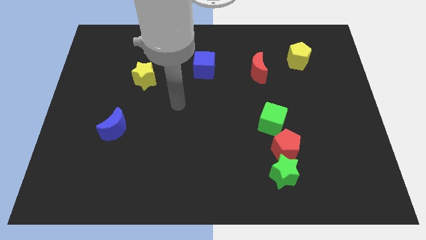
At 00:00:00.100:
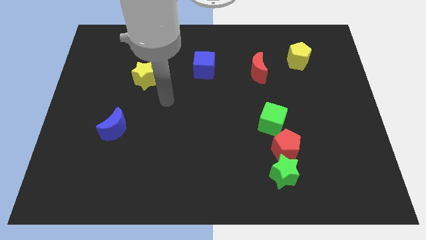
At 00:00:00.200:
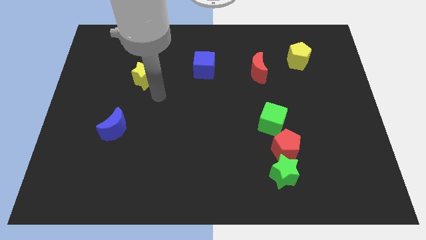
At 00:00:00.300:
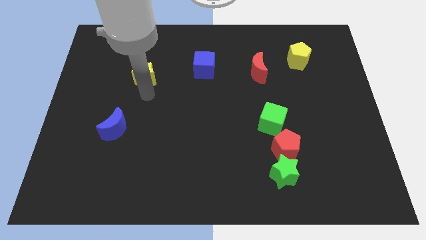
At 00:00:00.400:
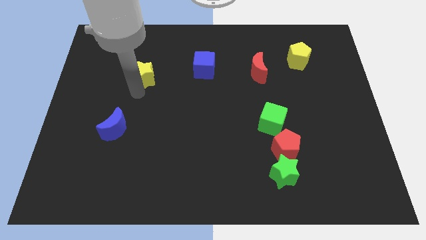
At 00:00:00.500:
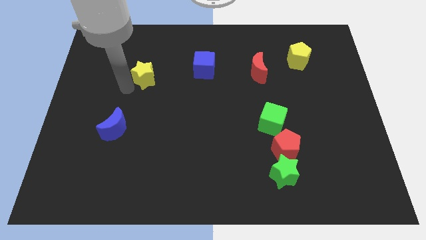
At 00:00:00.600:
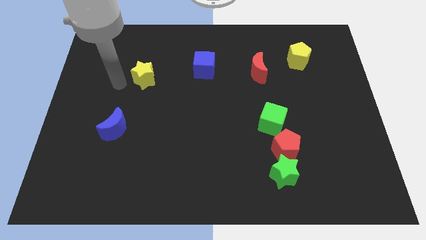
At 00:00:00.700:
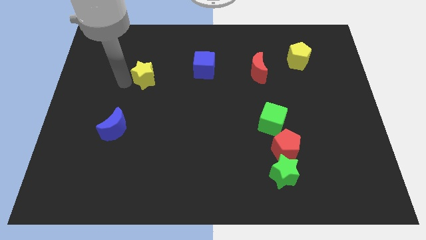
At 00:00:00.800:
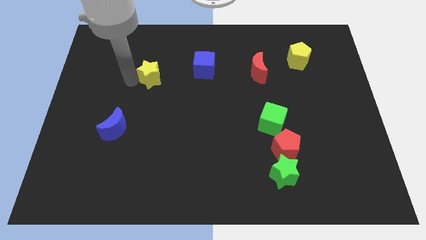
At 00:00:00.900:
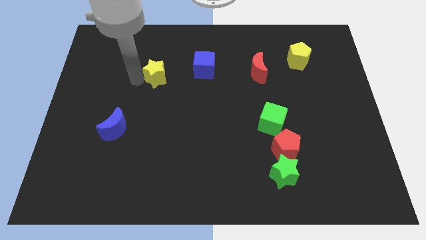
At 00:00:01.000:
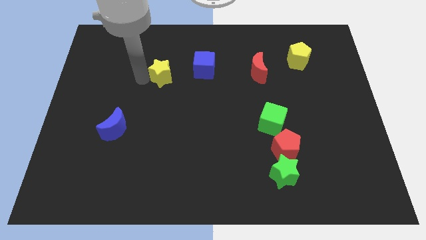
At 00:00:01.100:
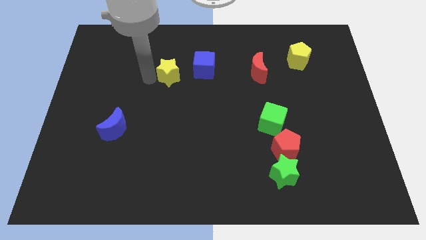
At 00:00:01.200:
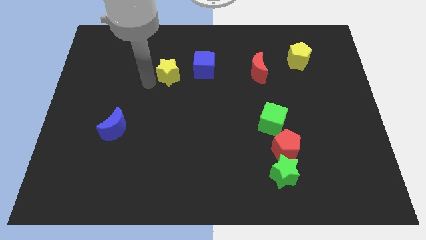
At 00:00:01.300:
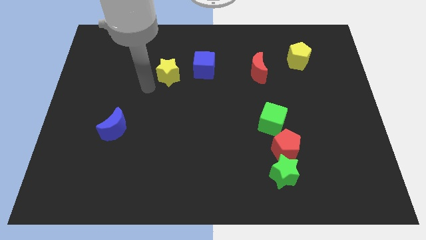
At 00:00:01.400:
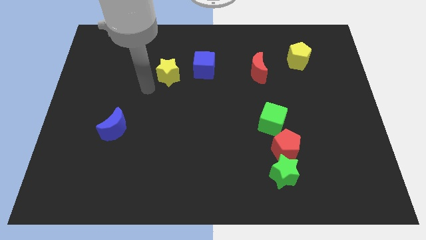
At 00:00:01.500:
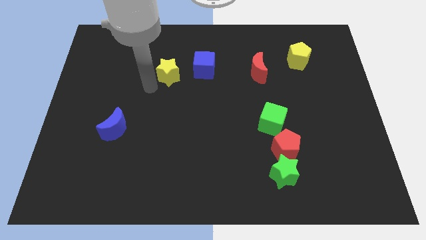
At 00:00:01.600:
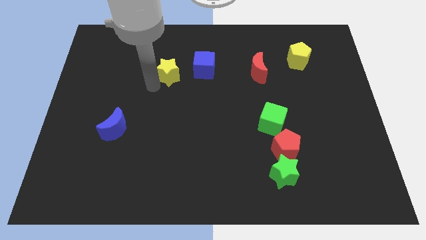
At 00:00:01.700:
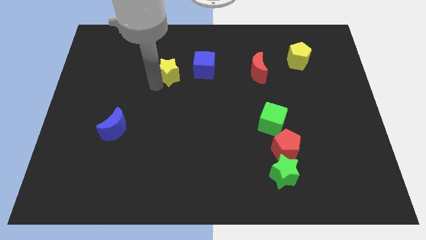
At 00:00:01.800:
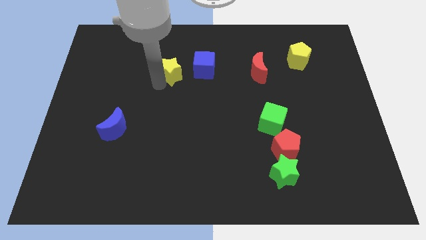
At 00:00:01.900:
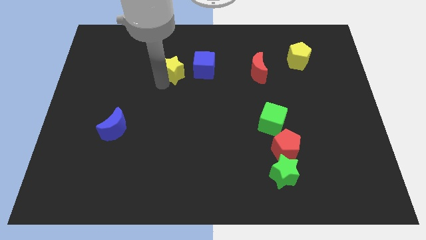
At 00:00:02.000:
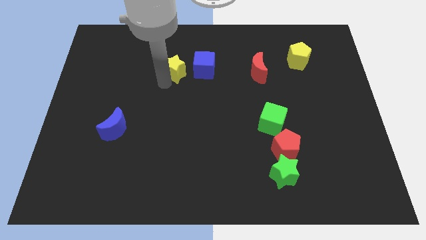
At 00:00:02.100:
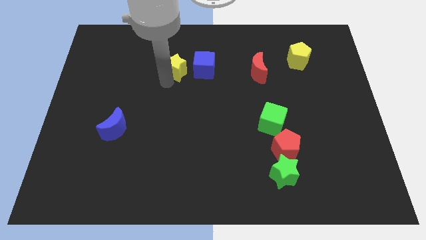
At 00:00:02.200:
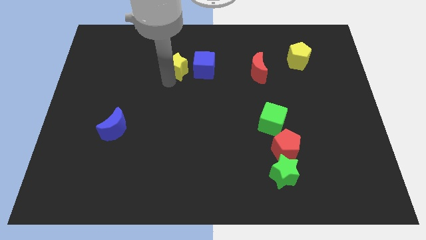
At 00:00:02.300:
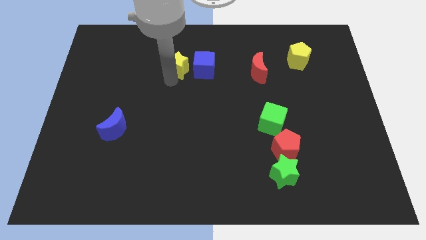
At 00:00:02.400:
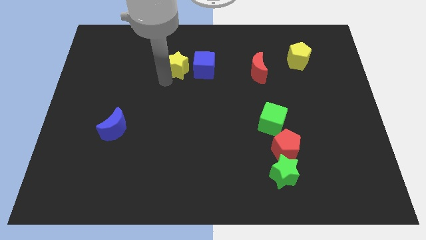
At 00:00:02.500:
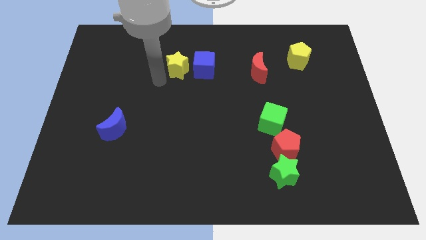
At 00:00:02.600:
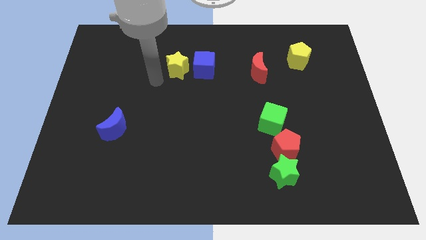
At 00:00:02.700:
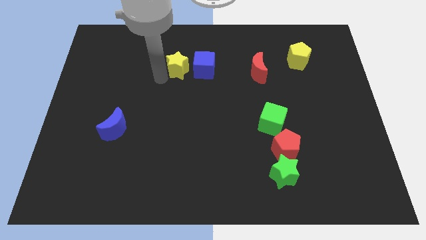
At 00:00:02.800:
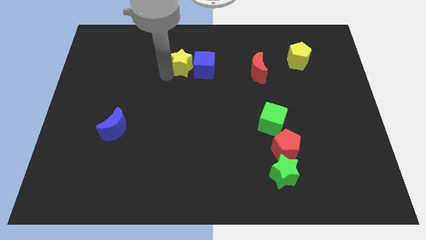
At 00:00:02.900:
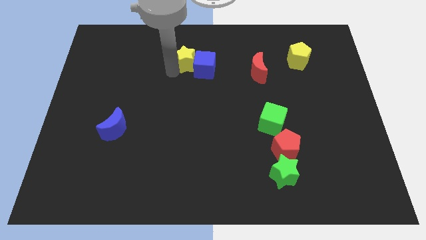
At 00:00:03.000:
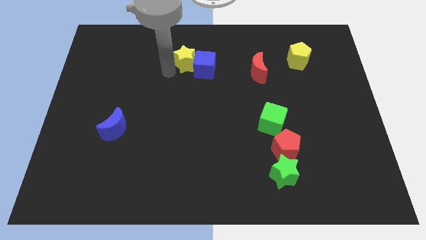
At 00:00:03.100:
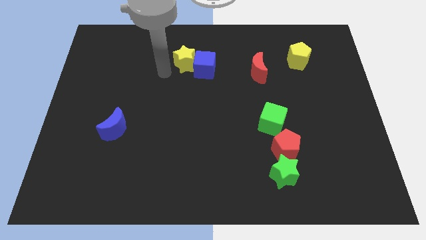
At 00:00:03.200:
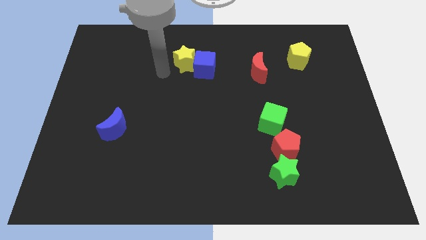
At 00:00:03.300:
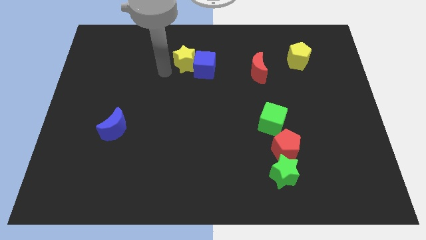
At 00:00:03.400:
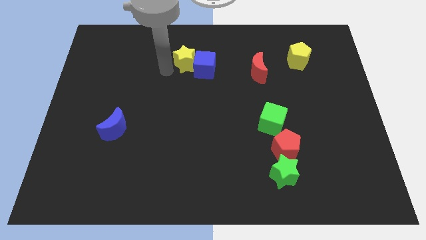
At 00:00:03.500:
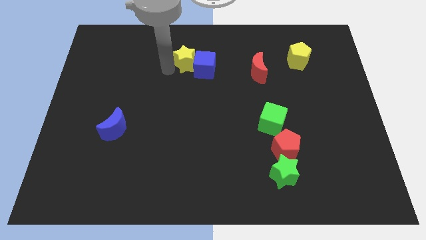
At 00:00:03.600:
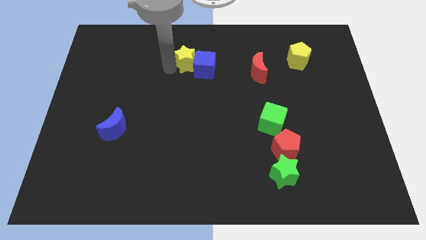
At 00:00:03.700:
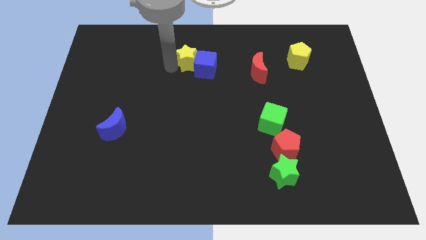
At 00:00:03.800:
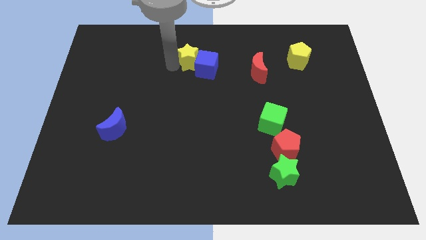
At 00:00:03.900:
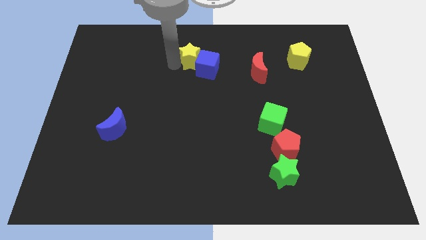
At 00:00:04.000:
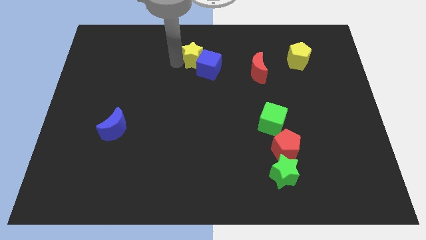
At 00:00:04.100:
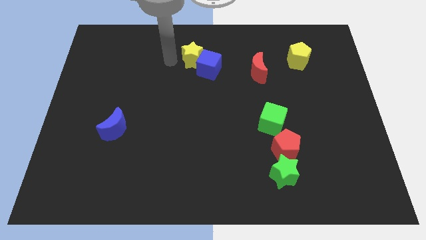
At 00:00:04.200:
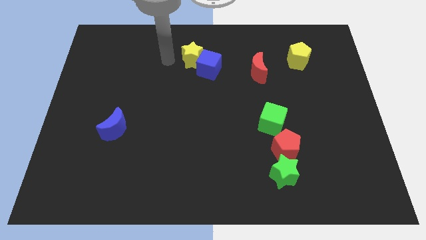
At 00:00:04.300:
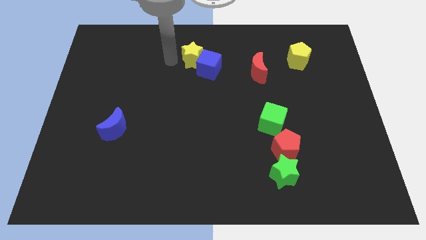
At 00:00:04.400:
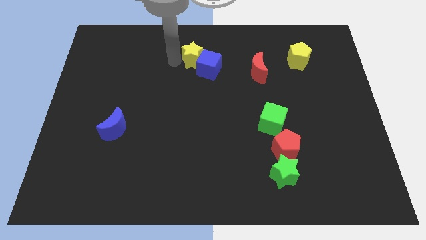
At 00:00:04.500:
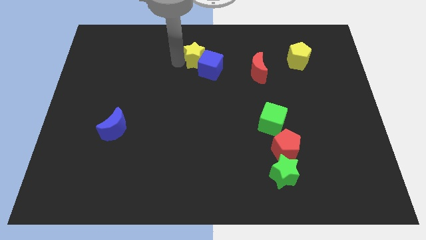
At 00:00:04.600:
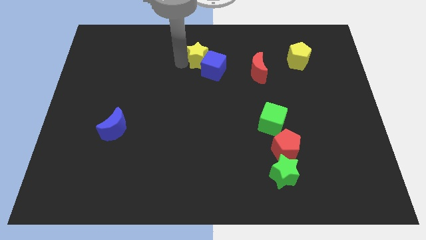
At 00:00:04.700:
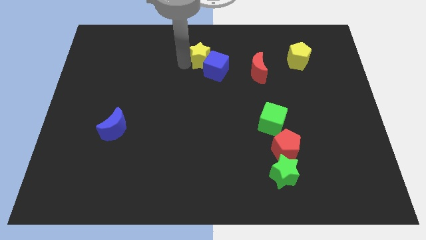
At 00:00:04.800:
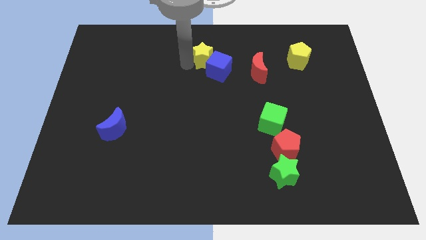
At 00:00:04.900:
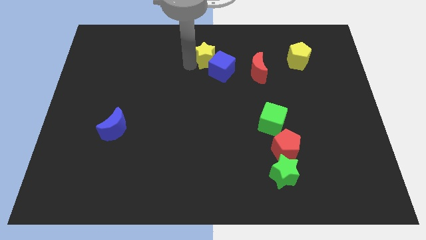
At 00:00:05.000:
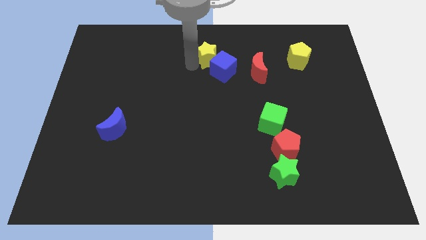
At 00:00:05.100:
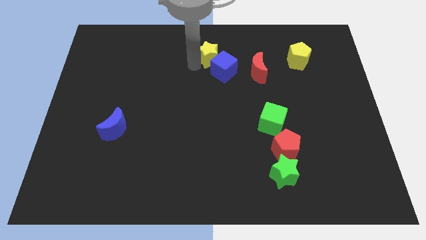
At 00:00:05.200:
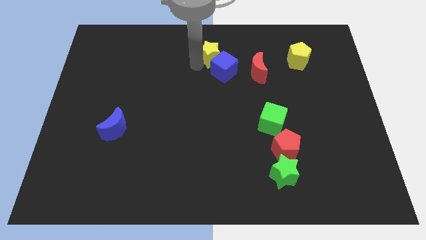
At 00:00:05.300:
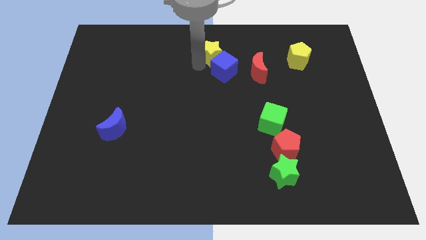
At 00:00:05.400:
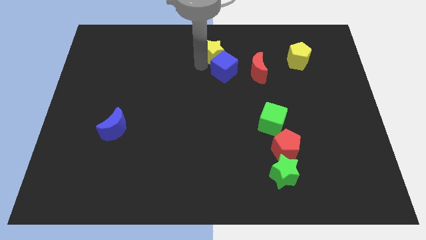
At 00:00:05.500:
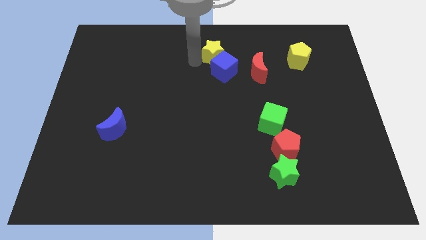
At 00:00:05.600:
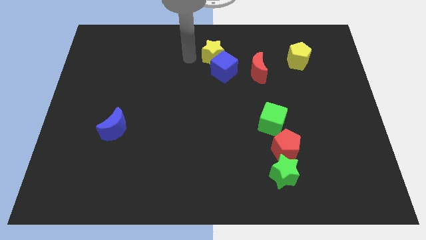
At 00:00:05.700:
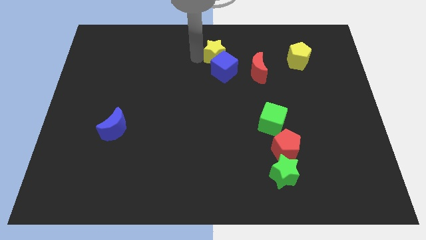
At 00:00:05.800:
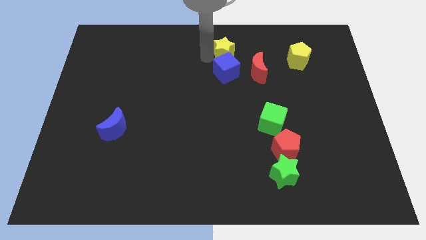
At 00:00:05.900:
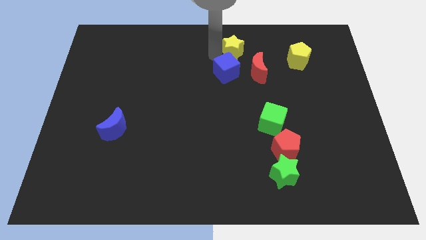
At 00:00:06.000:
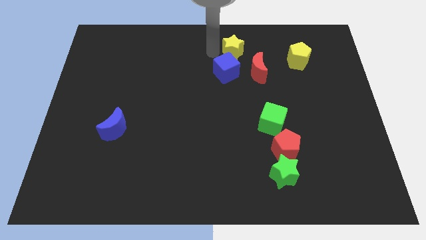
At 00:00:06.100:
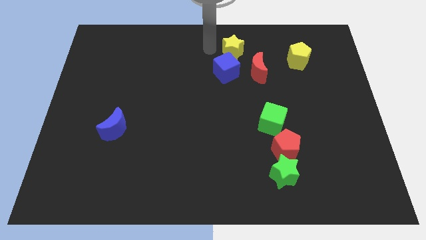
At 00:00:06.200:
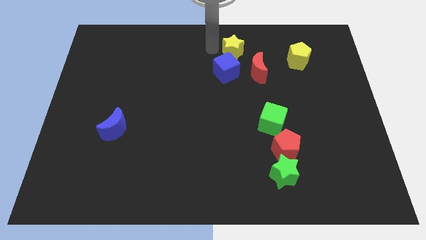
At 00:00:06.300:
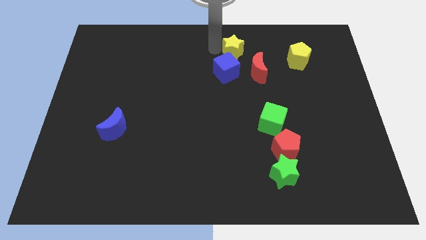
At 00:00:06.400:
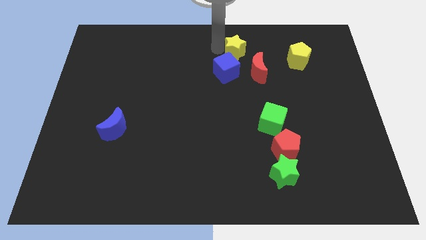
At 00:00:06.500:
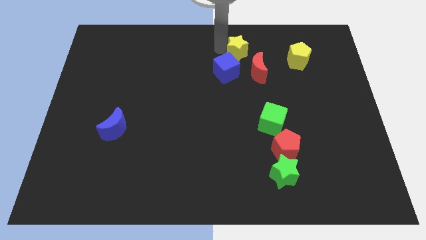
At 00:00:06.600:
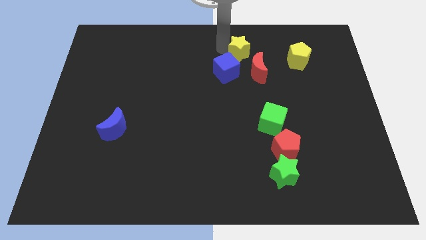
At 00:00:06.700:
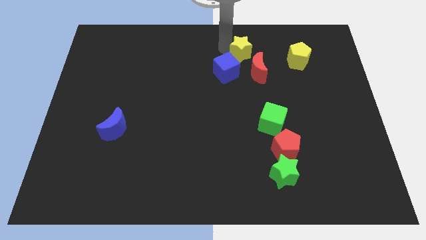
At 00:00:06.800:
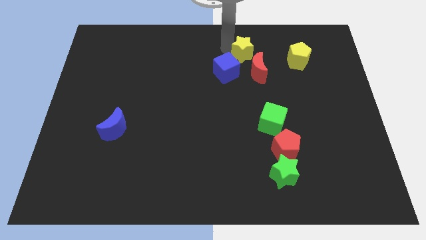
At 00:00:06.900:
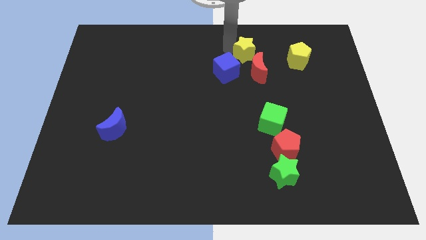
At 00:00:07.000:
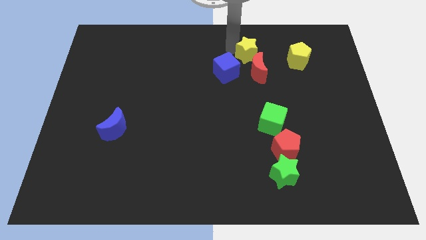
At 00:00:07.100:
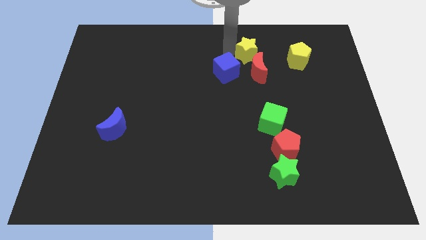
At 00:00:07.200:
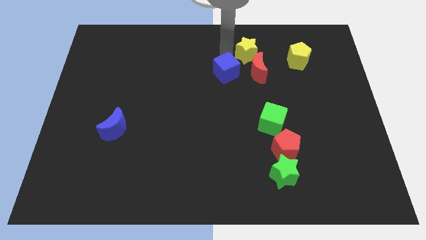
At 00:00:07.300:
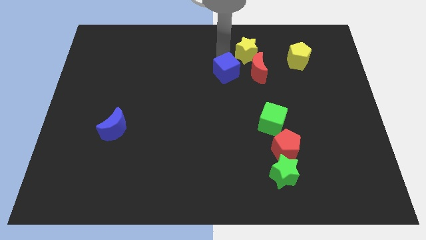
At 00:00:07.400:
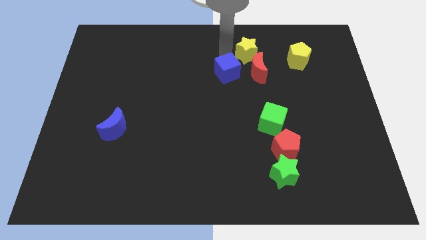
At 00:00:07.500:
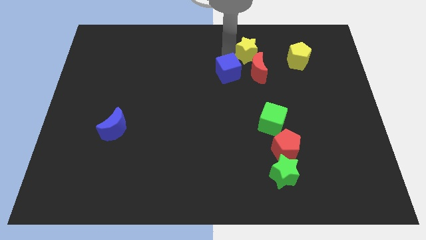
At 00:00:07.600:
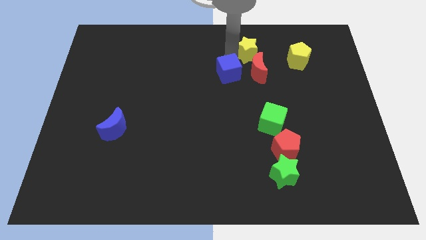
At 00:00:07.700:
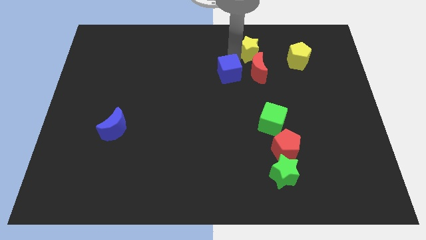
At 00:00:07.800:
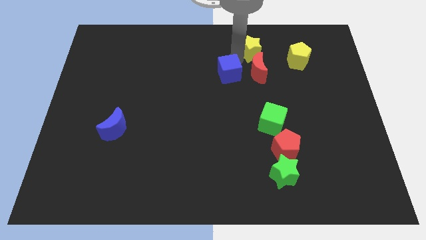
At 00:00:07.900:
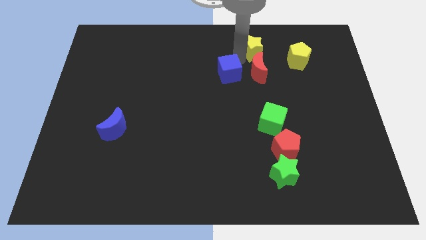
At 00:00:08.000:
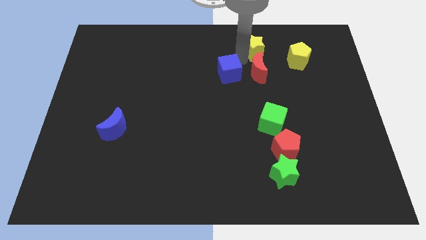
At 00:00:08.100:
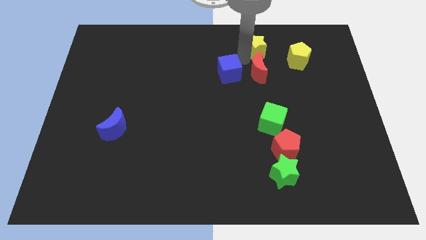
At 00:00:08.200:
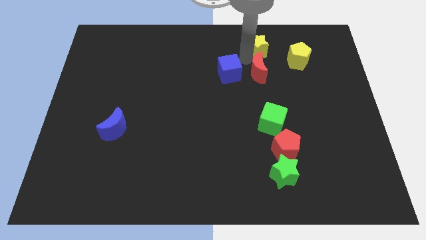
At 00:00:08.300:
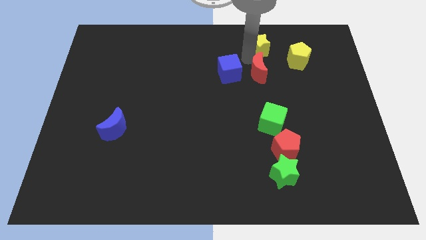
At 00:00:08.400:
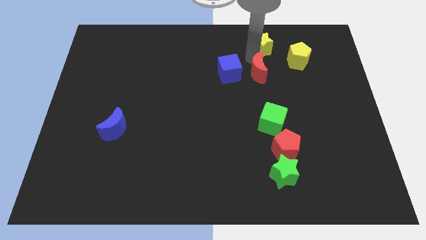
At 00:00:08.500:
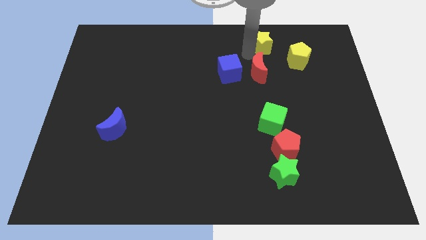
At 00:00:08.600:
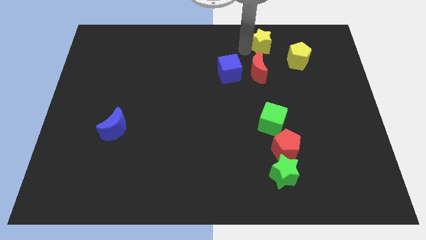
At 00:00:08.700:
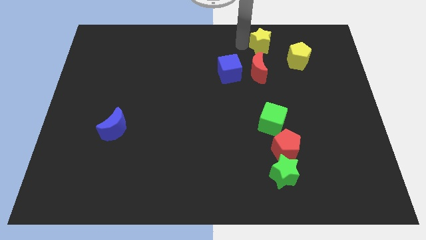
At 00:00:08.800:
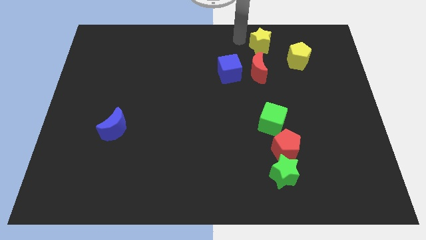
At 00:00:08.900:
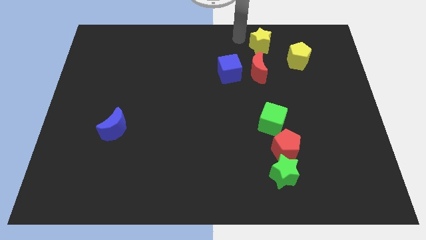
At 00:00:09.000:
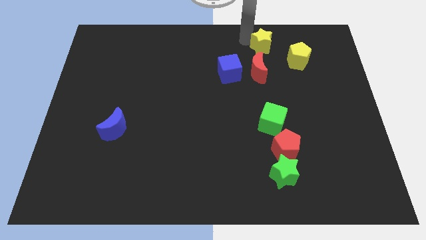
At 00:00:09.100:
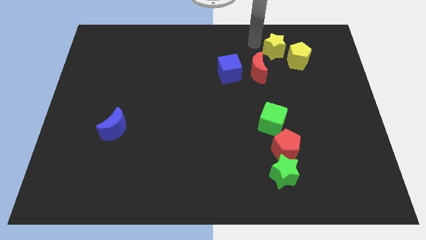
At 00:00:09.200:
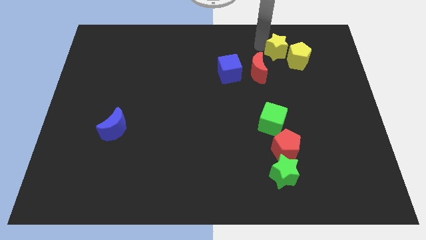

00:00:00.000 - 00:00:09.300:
move the yellow star towards the yellow pentagon
